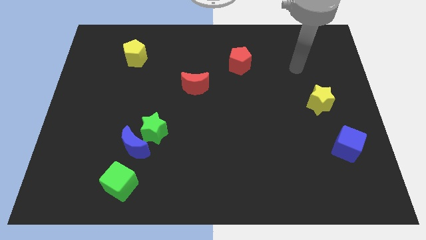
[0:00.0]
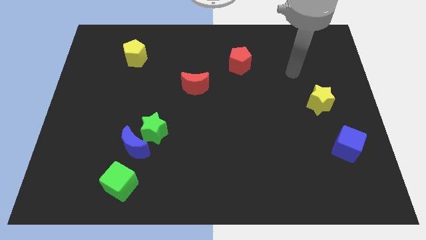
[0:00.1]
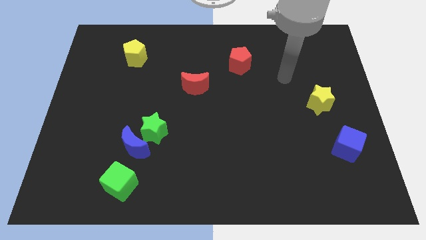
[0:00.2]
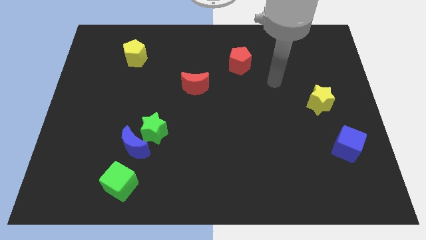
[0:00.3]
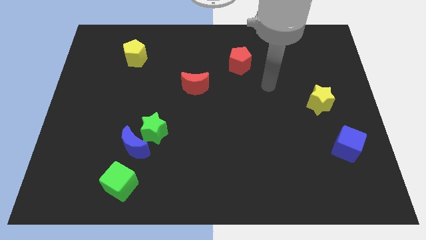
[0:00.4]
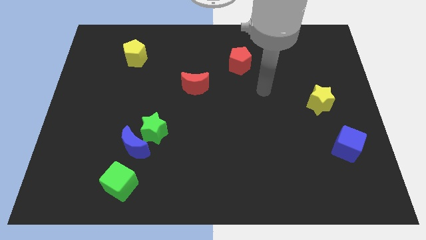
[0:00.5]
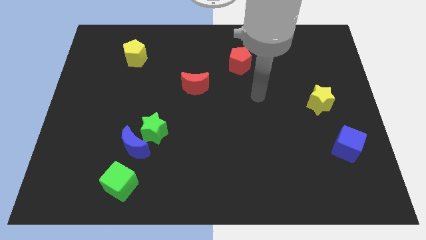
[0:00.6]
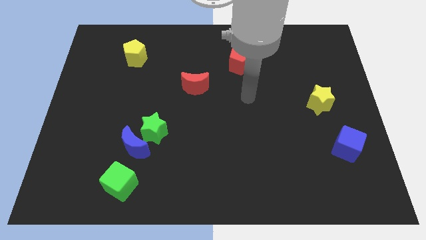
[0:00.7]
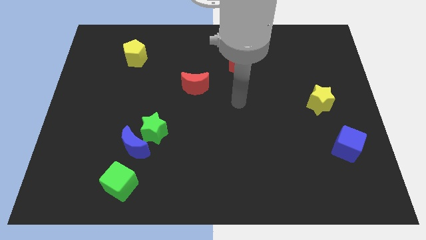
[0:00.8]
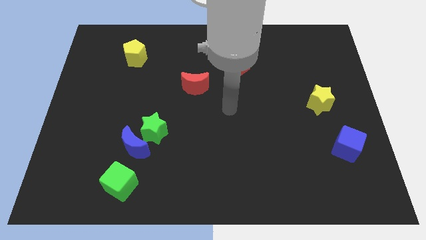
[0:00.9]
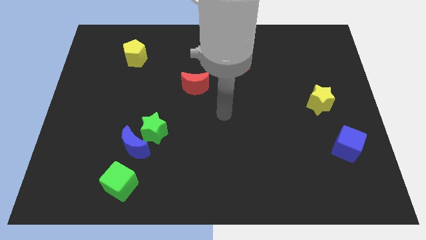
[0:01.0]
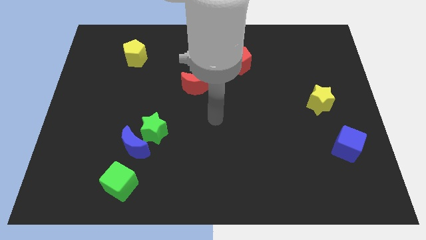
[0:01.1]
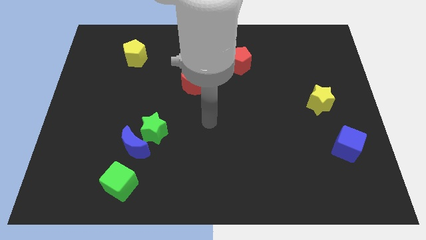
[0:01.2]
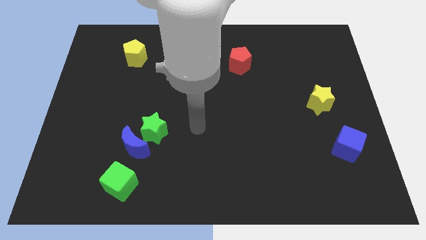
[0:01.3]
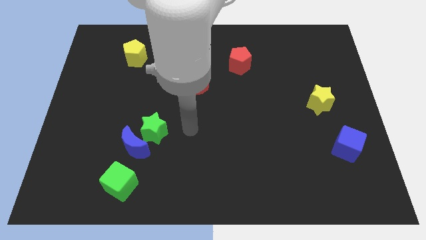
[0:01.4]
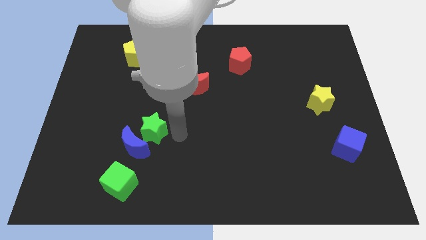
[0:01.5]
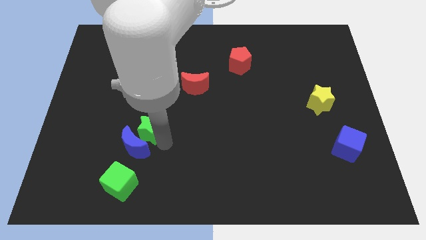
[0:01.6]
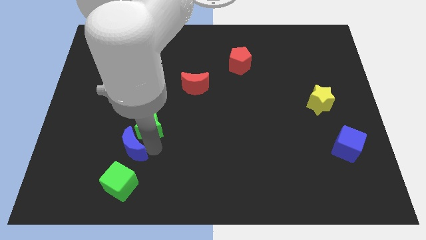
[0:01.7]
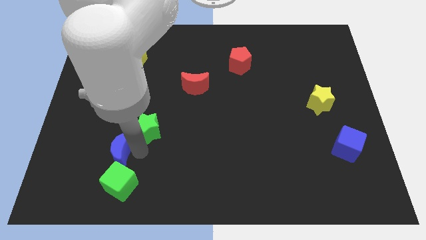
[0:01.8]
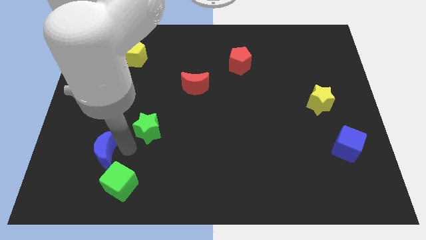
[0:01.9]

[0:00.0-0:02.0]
pull the green star apart from the blue moon

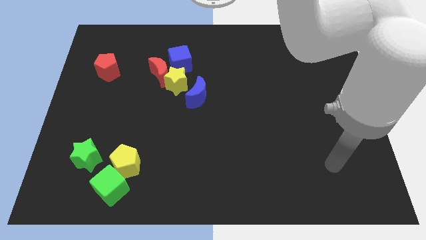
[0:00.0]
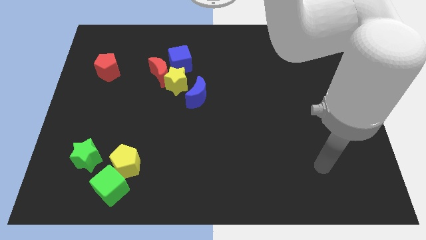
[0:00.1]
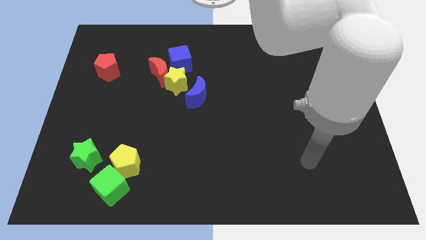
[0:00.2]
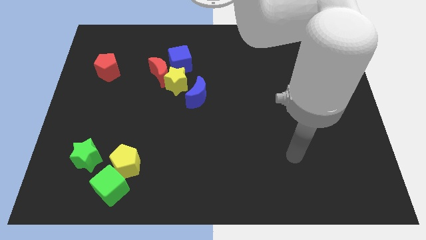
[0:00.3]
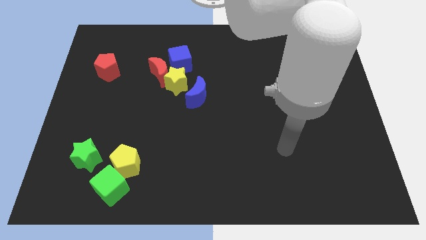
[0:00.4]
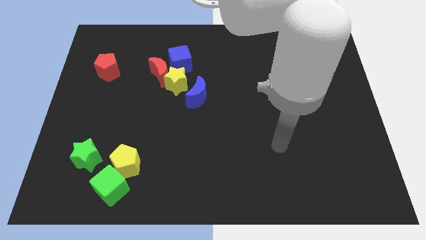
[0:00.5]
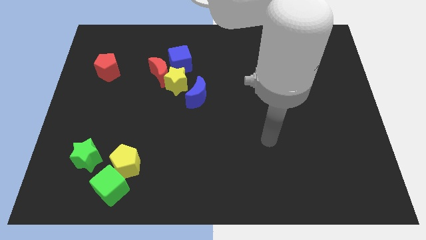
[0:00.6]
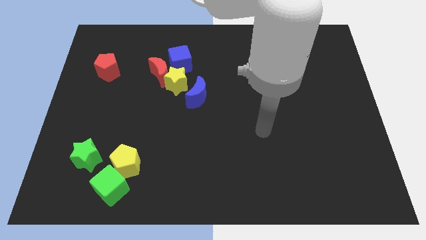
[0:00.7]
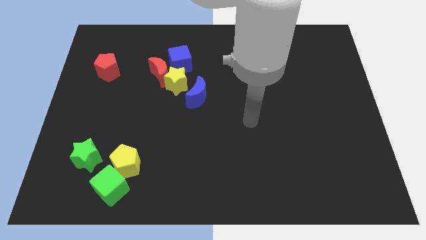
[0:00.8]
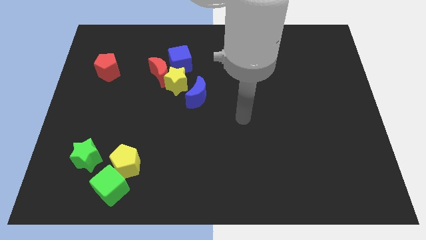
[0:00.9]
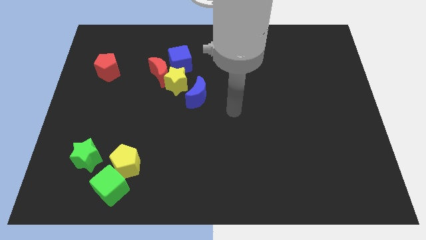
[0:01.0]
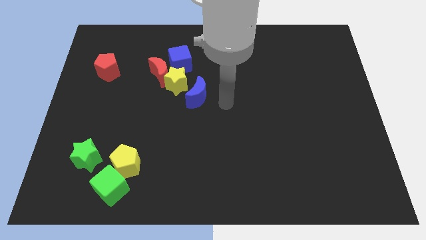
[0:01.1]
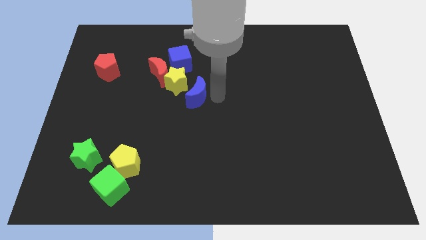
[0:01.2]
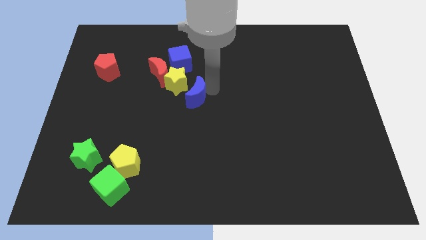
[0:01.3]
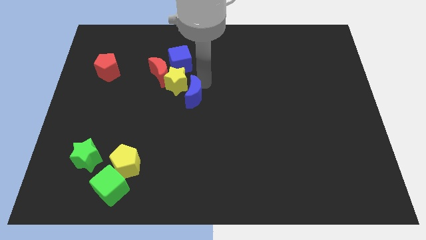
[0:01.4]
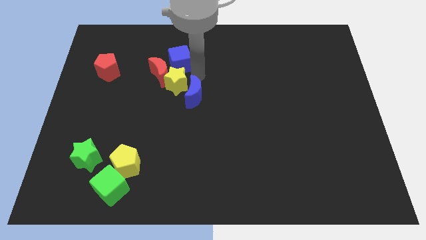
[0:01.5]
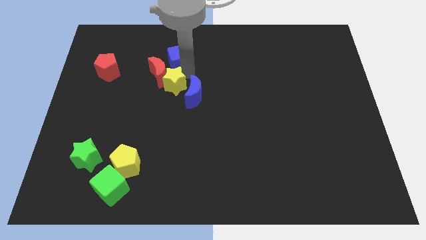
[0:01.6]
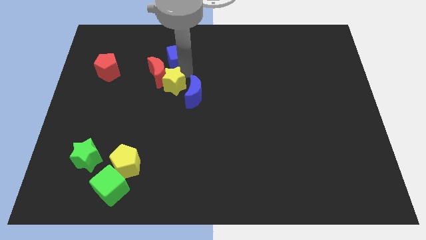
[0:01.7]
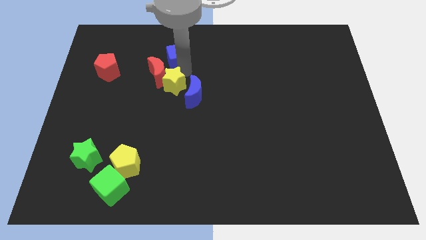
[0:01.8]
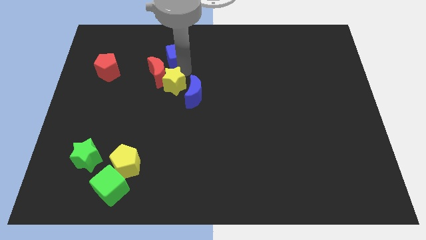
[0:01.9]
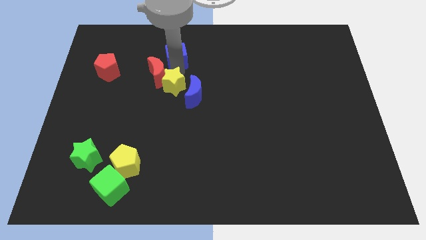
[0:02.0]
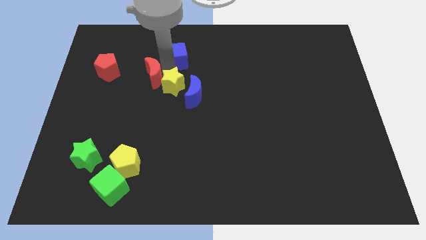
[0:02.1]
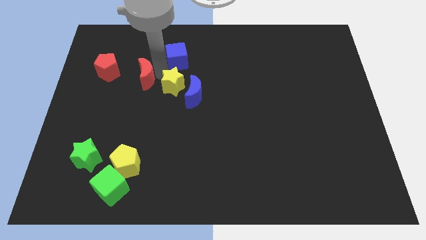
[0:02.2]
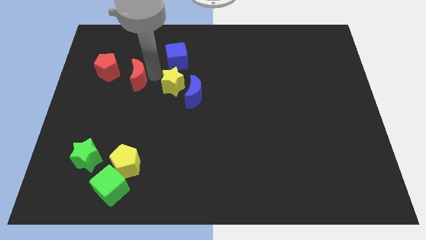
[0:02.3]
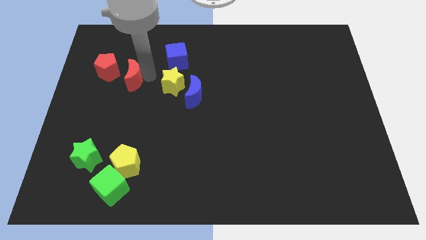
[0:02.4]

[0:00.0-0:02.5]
pull the red moon apart from the yellow star and blue cube

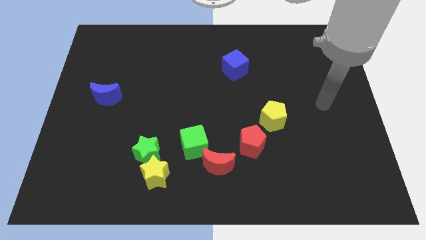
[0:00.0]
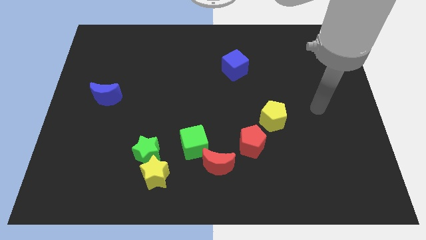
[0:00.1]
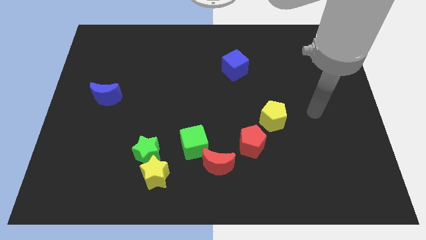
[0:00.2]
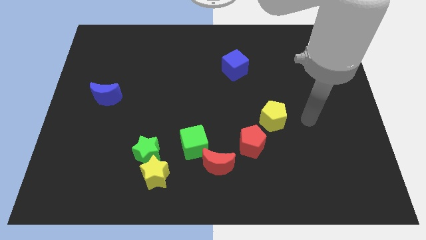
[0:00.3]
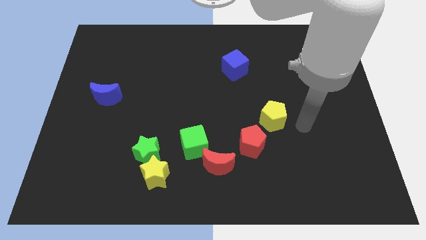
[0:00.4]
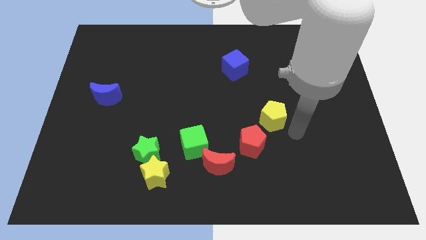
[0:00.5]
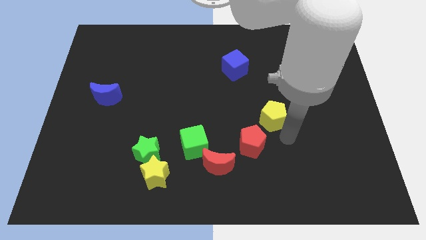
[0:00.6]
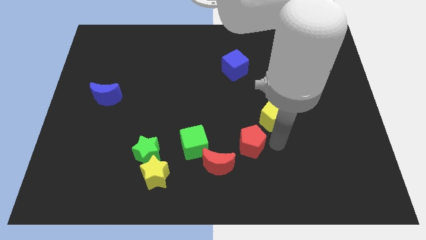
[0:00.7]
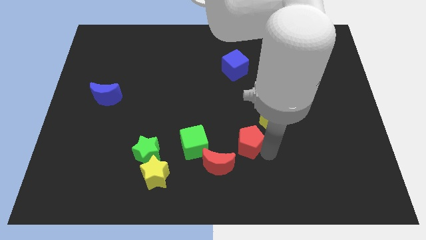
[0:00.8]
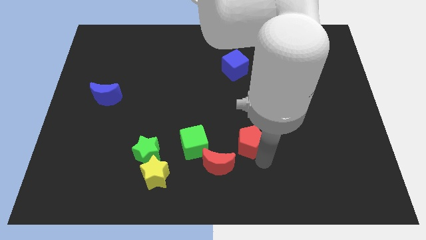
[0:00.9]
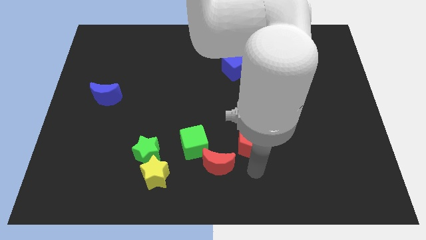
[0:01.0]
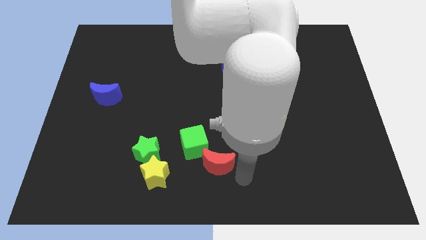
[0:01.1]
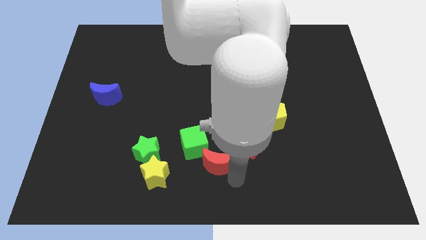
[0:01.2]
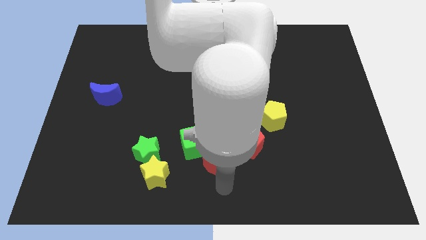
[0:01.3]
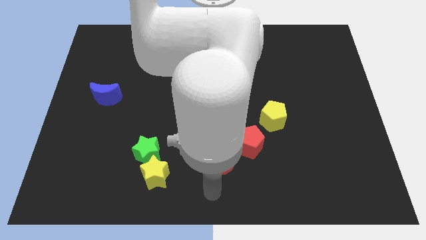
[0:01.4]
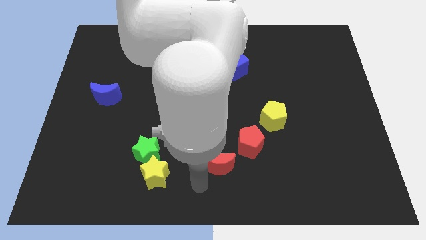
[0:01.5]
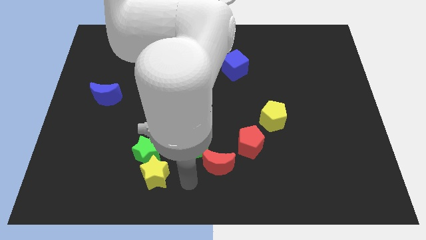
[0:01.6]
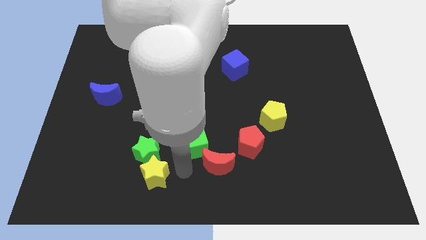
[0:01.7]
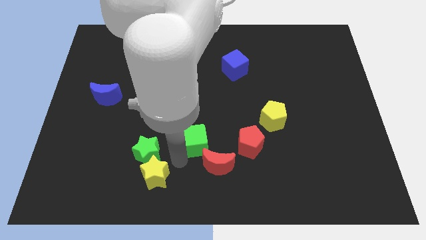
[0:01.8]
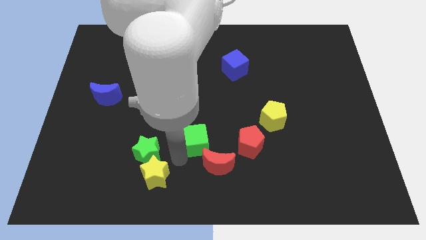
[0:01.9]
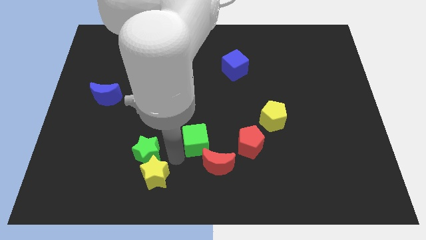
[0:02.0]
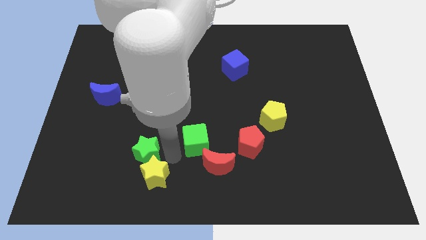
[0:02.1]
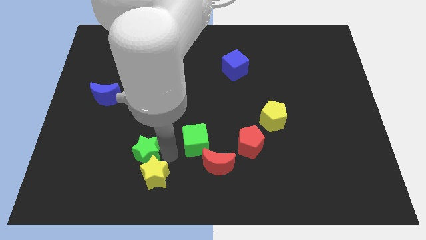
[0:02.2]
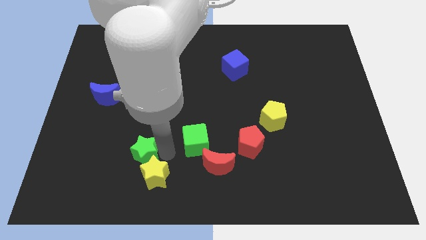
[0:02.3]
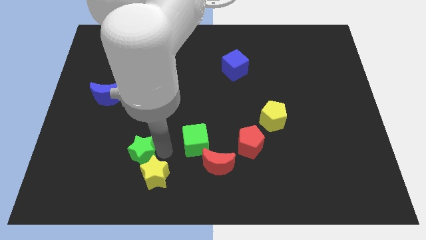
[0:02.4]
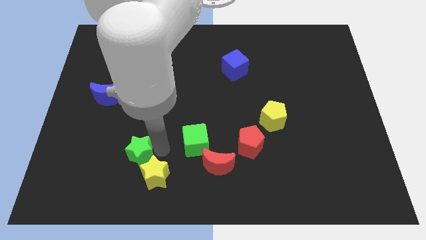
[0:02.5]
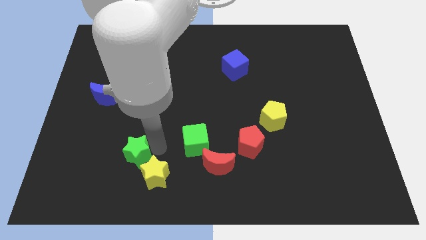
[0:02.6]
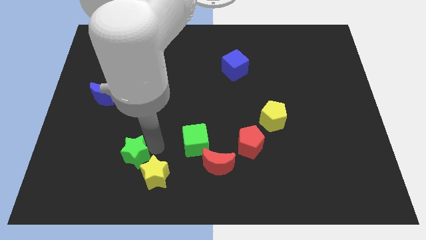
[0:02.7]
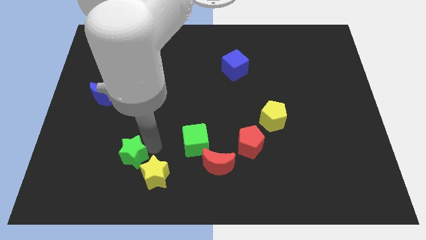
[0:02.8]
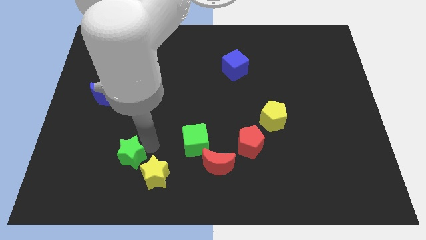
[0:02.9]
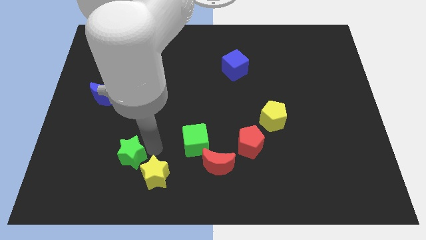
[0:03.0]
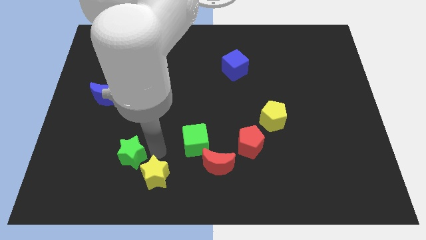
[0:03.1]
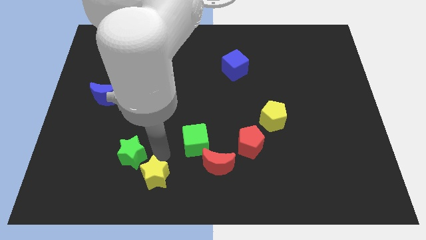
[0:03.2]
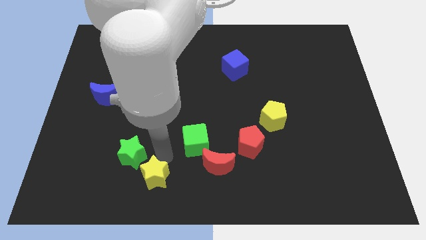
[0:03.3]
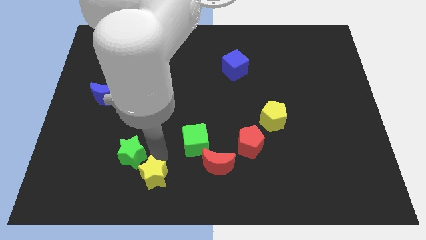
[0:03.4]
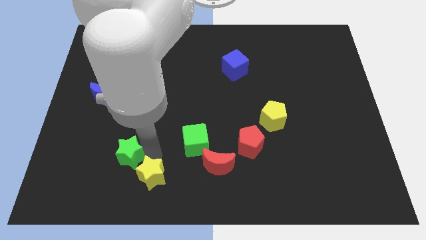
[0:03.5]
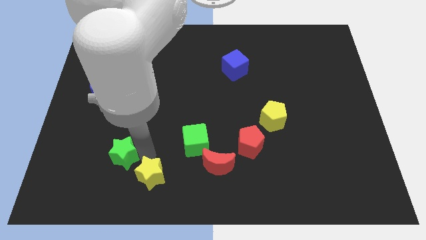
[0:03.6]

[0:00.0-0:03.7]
move the green star away from the yellow star and green cube

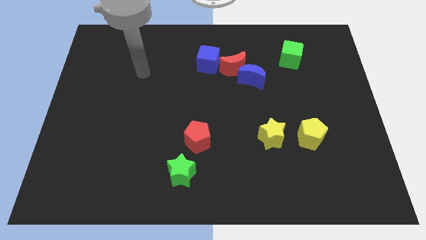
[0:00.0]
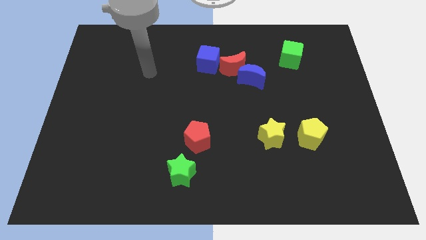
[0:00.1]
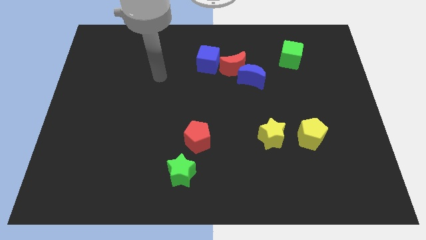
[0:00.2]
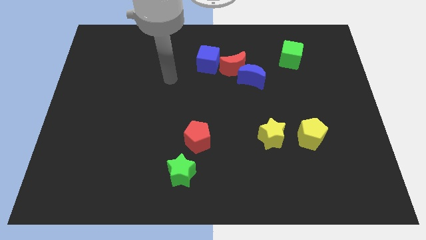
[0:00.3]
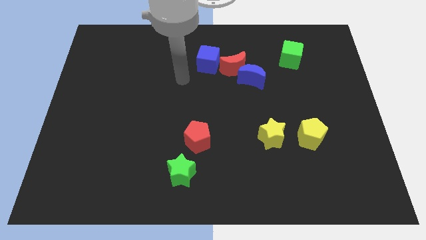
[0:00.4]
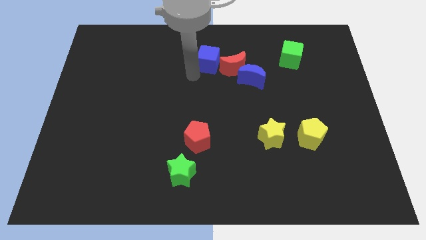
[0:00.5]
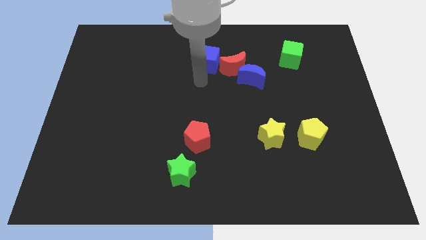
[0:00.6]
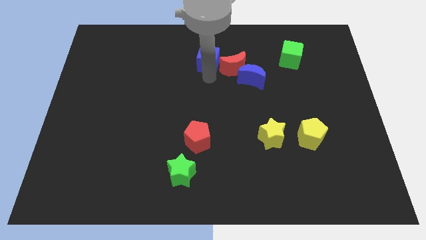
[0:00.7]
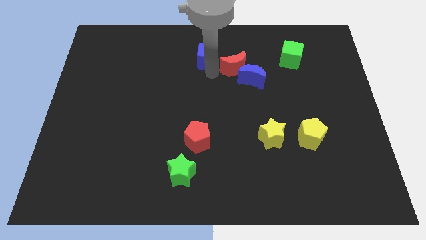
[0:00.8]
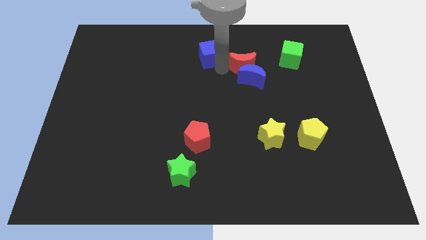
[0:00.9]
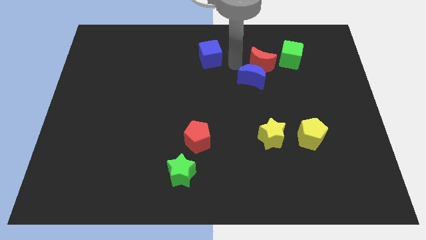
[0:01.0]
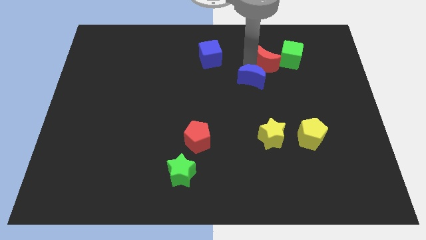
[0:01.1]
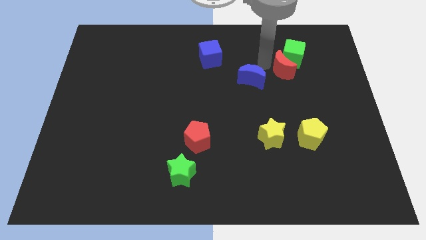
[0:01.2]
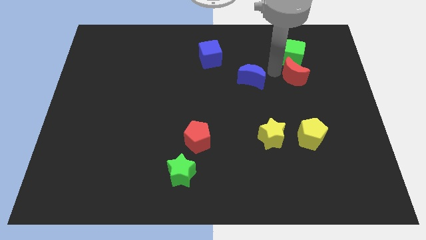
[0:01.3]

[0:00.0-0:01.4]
move the blue moon away from the red moon
